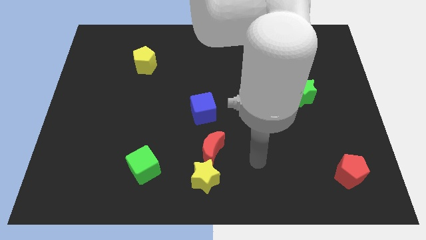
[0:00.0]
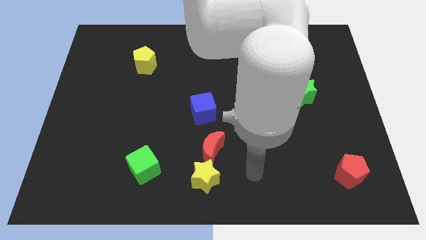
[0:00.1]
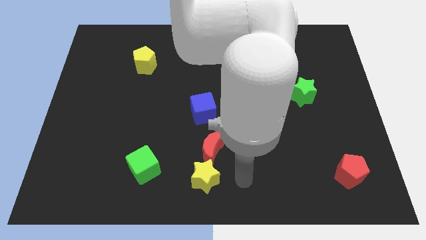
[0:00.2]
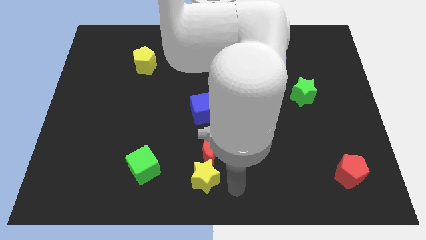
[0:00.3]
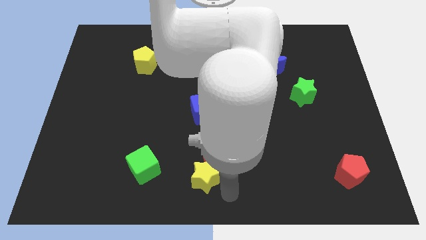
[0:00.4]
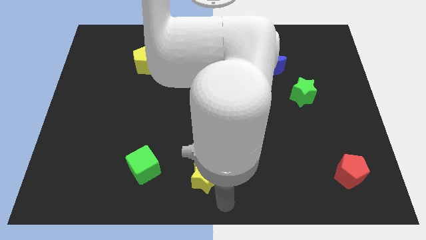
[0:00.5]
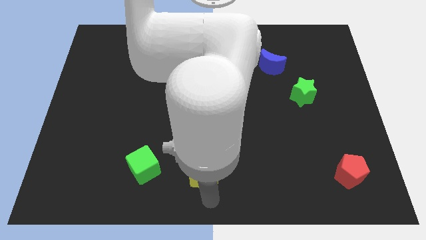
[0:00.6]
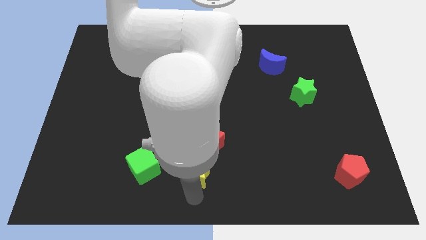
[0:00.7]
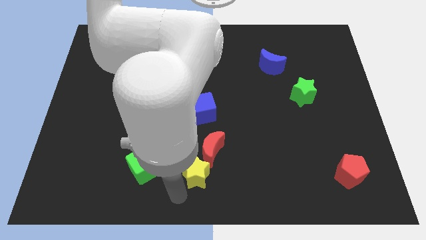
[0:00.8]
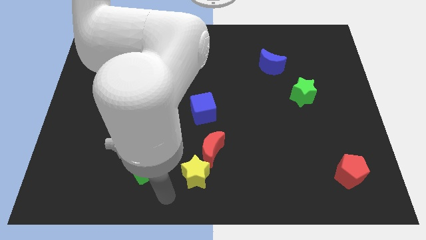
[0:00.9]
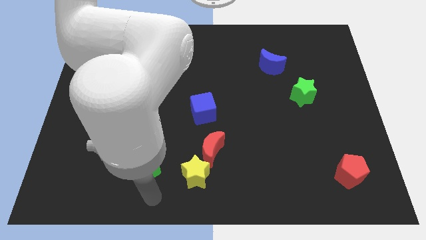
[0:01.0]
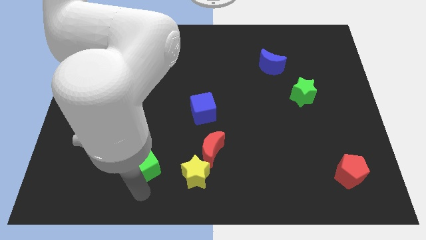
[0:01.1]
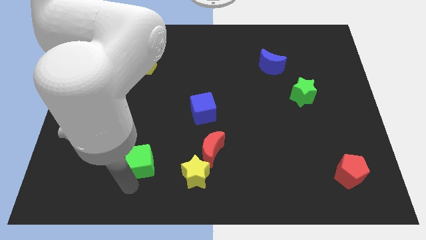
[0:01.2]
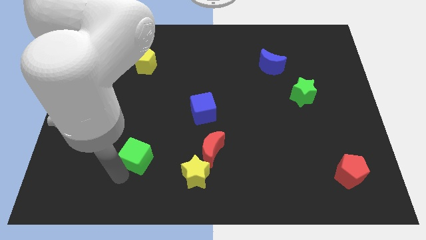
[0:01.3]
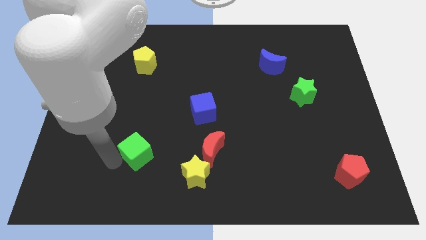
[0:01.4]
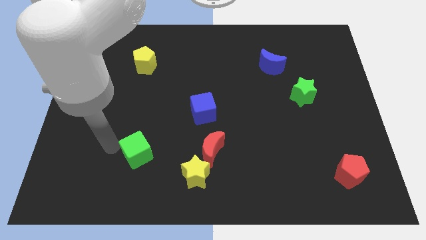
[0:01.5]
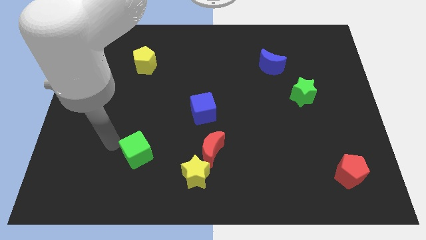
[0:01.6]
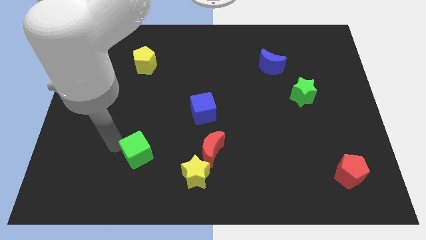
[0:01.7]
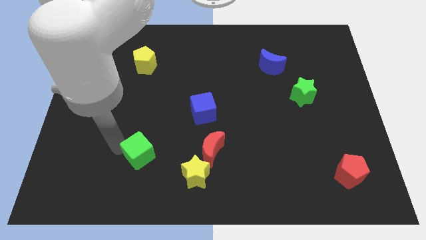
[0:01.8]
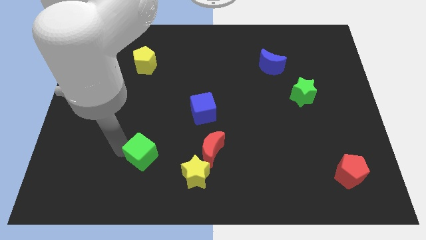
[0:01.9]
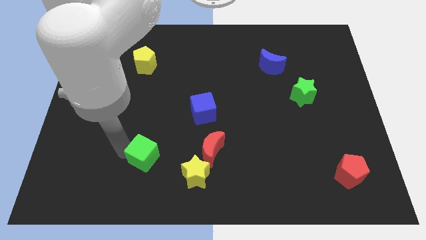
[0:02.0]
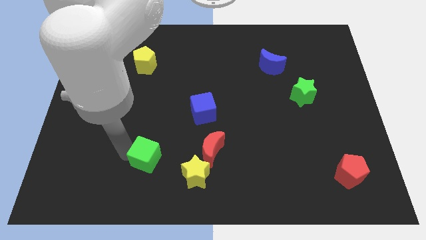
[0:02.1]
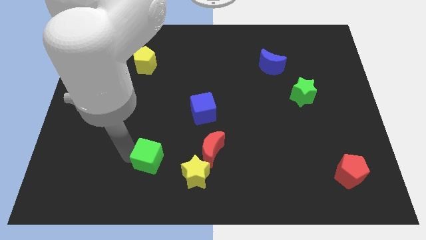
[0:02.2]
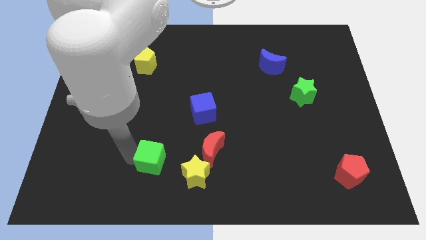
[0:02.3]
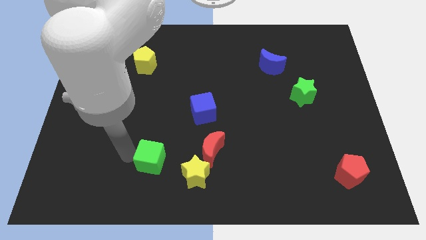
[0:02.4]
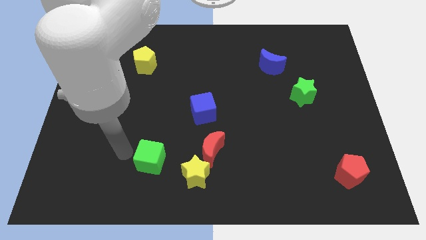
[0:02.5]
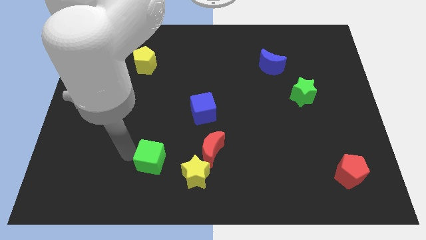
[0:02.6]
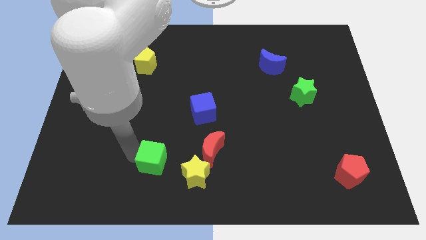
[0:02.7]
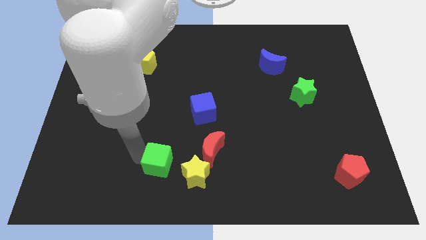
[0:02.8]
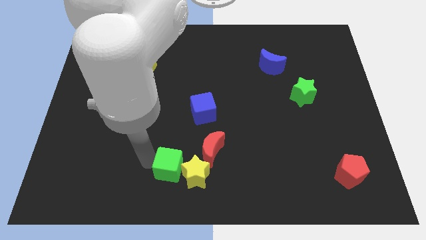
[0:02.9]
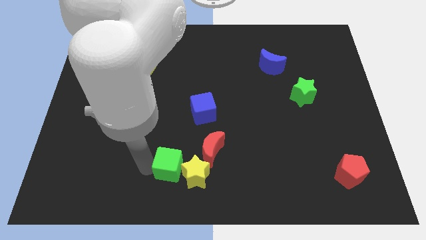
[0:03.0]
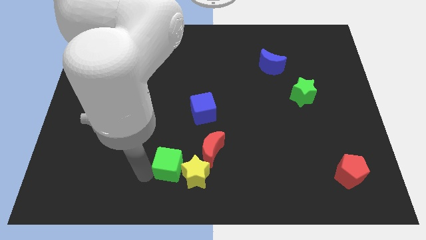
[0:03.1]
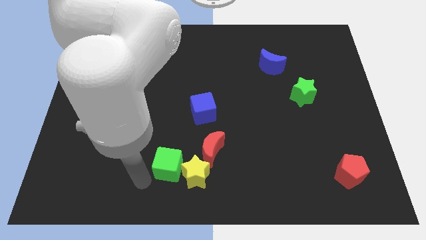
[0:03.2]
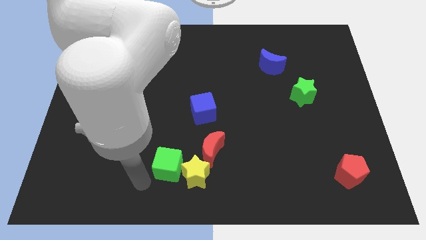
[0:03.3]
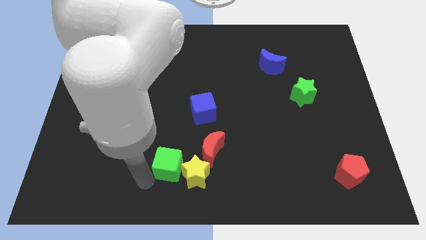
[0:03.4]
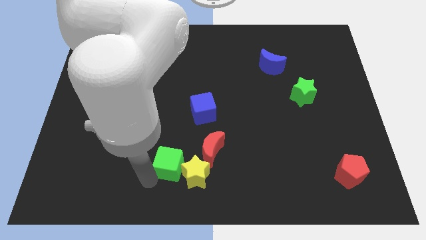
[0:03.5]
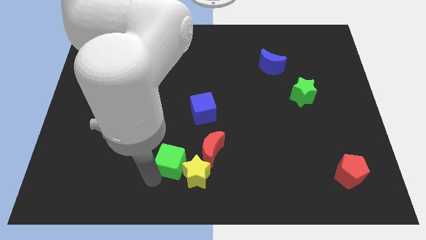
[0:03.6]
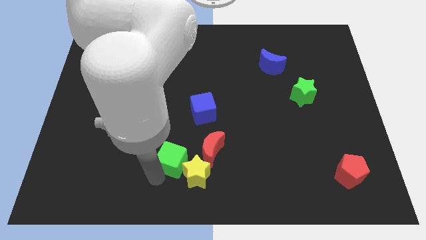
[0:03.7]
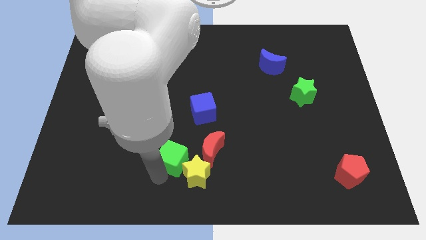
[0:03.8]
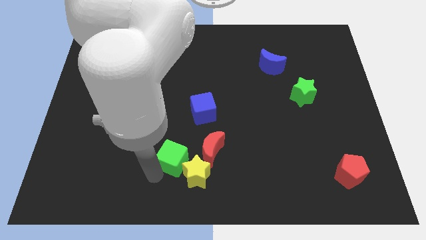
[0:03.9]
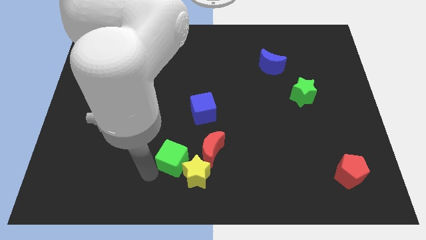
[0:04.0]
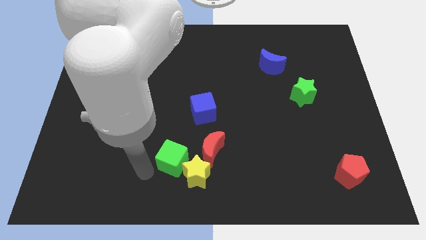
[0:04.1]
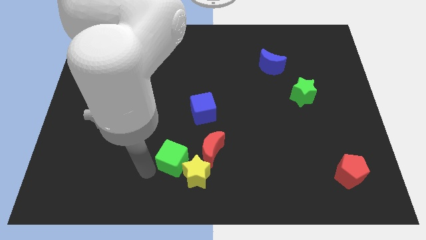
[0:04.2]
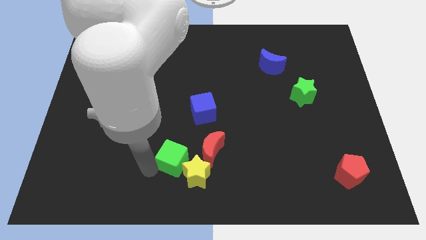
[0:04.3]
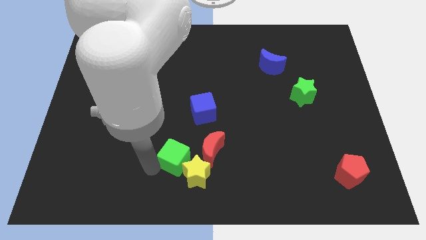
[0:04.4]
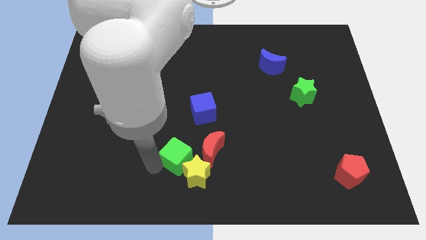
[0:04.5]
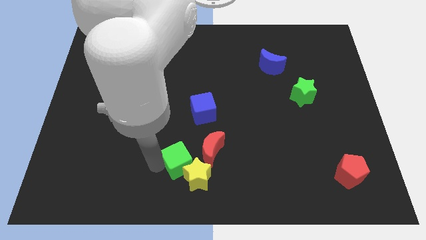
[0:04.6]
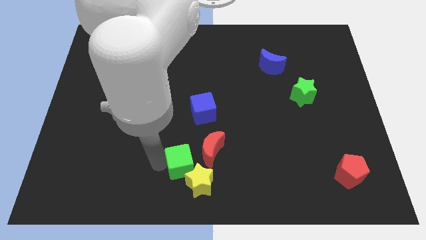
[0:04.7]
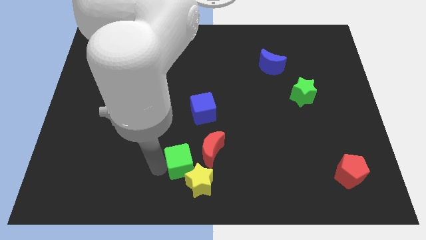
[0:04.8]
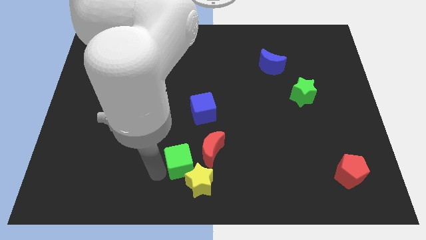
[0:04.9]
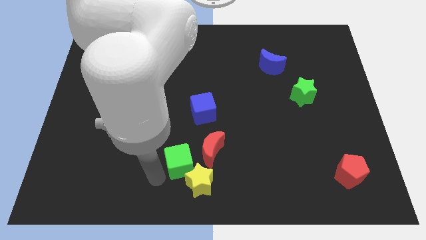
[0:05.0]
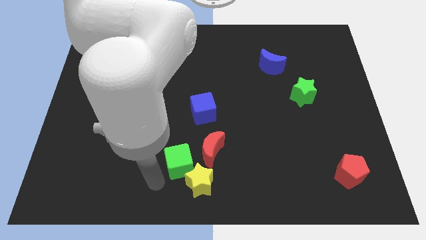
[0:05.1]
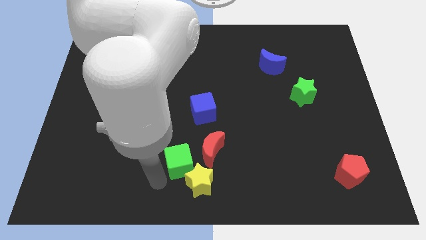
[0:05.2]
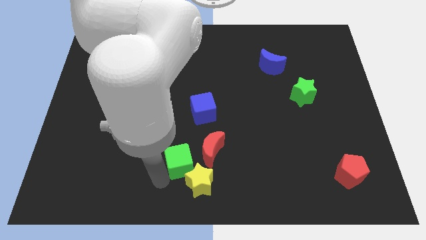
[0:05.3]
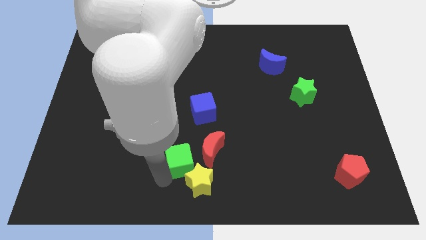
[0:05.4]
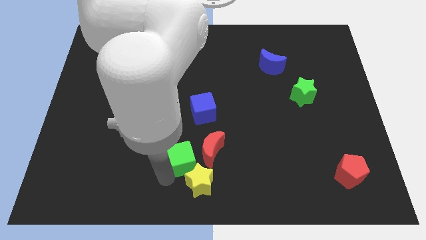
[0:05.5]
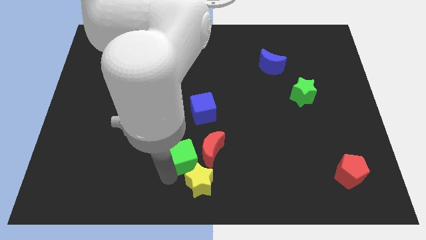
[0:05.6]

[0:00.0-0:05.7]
put the green cube close to the red moon

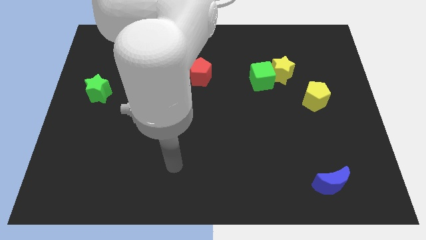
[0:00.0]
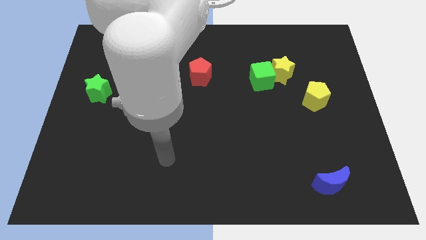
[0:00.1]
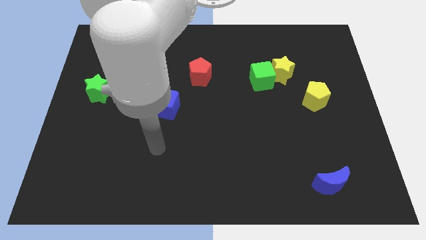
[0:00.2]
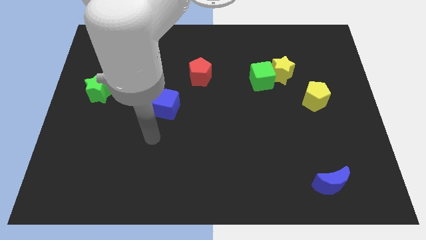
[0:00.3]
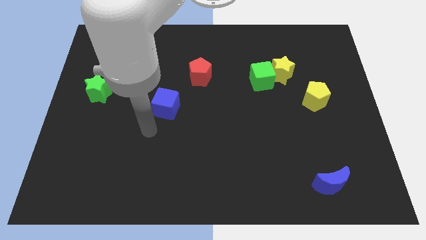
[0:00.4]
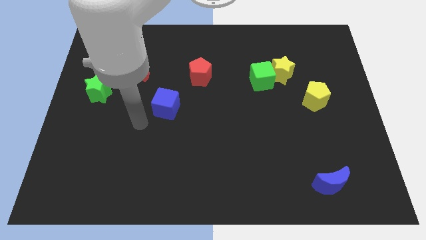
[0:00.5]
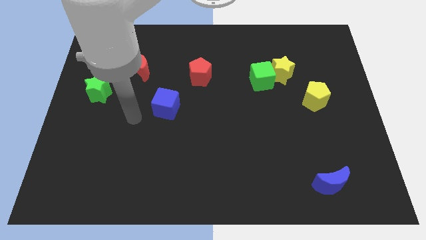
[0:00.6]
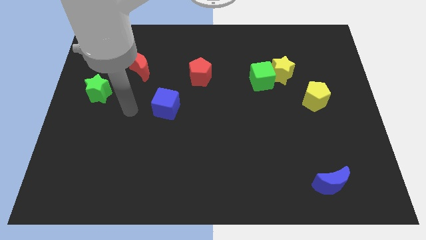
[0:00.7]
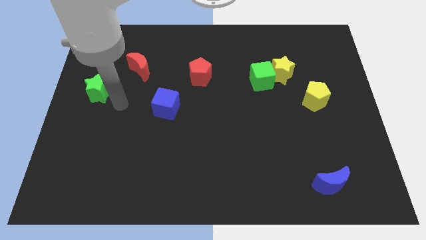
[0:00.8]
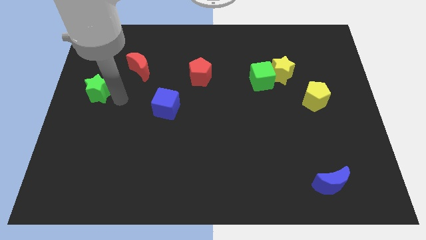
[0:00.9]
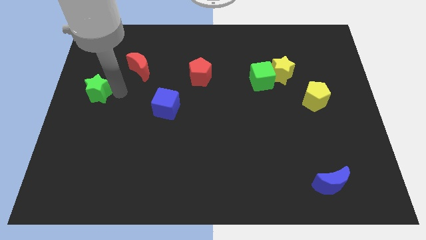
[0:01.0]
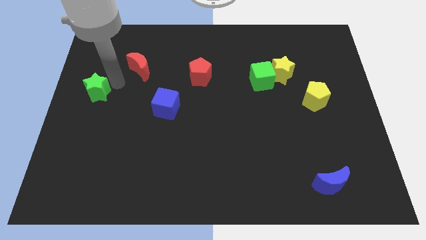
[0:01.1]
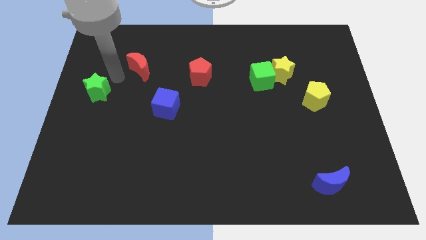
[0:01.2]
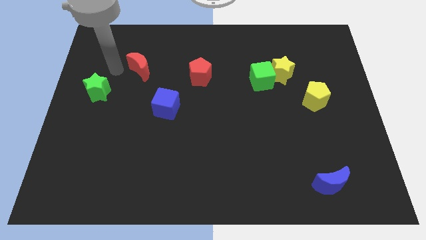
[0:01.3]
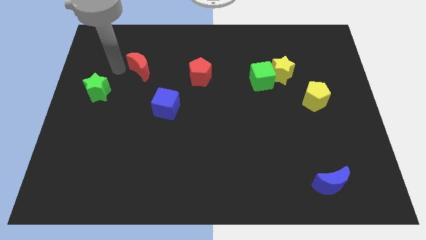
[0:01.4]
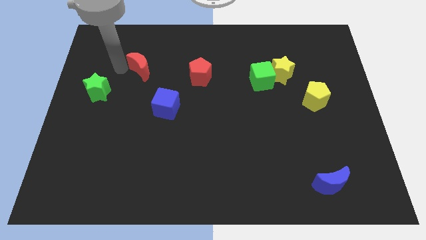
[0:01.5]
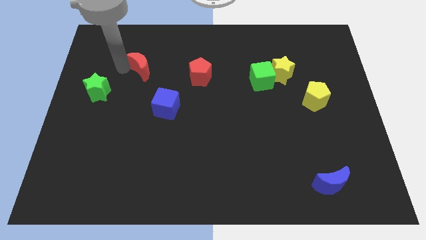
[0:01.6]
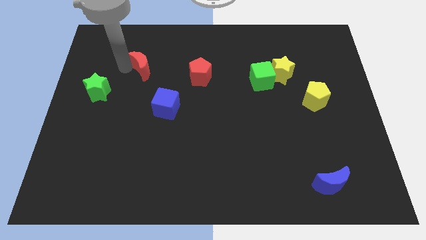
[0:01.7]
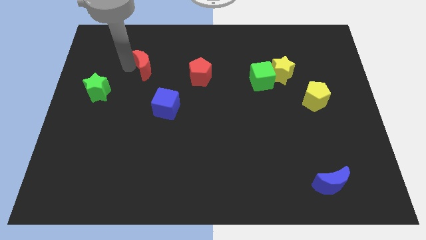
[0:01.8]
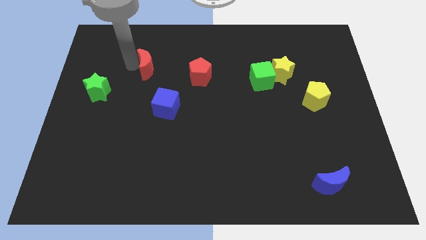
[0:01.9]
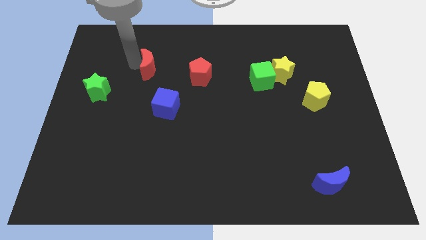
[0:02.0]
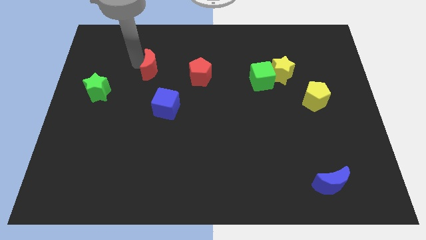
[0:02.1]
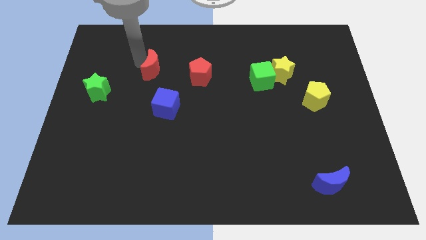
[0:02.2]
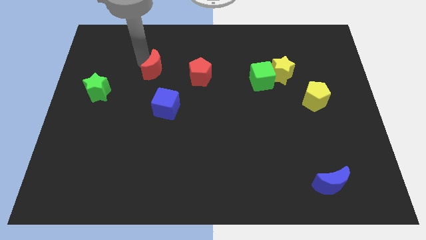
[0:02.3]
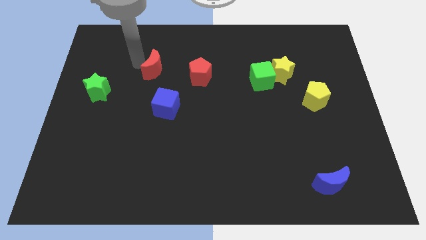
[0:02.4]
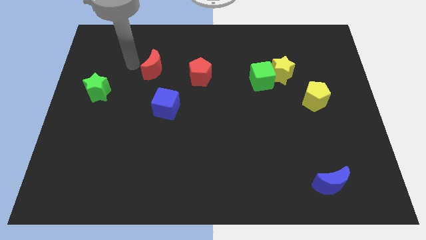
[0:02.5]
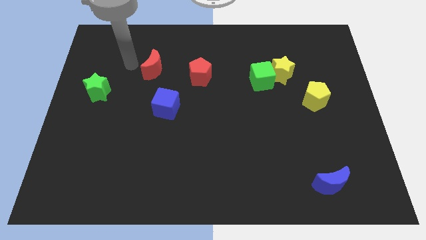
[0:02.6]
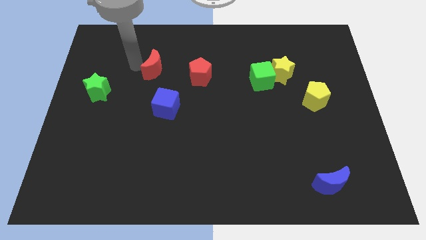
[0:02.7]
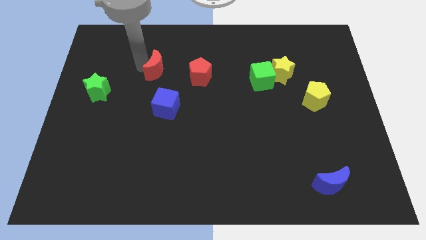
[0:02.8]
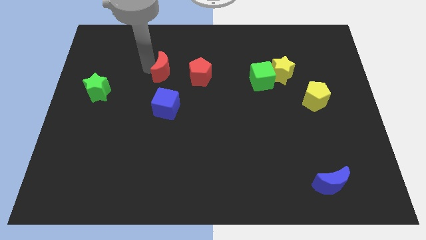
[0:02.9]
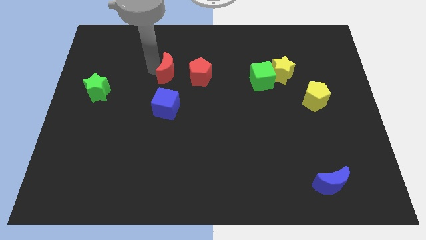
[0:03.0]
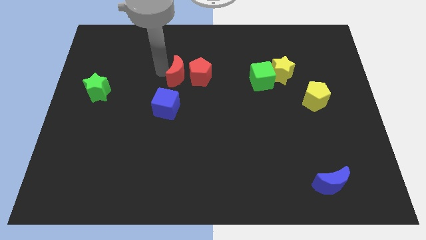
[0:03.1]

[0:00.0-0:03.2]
slide the red moon next to the red pentagon
